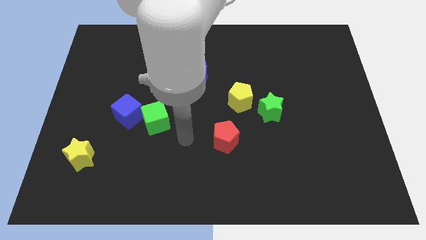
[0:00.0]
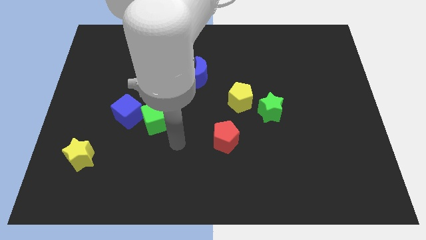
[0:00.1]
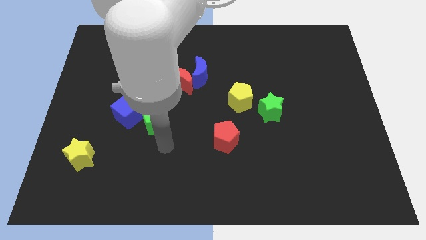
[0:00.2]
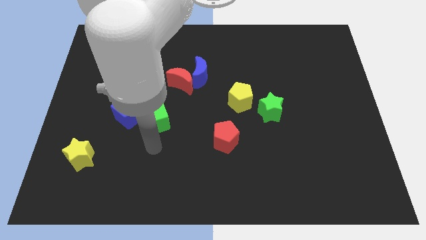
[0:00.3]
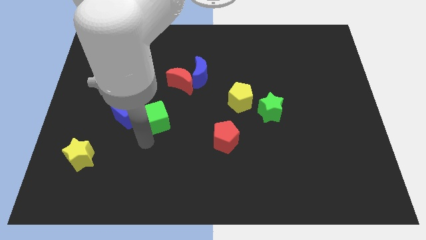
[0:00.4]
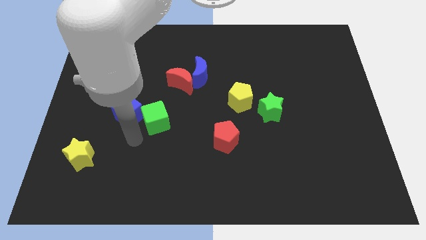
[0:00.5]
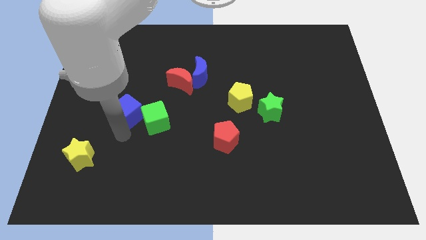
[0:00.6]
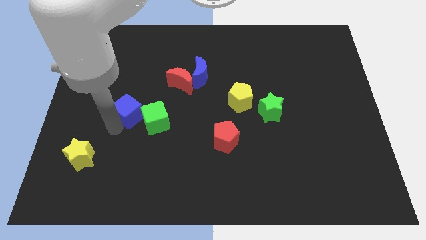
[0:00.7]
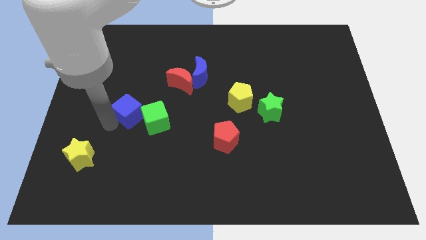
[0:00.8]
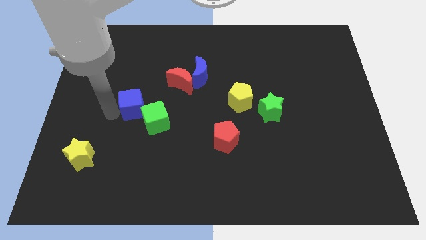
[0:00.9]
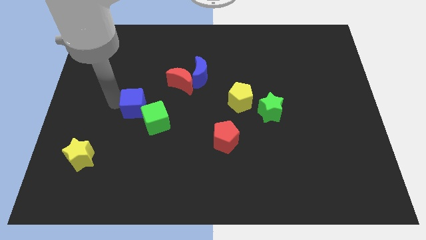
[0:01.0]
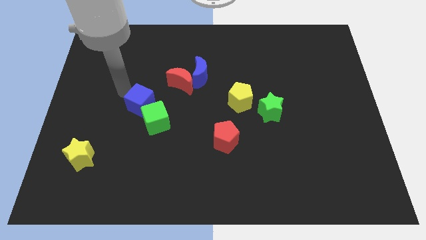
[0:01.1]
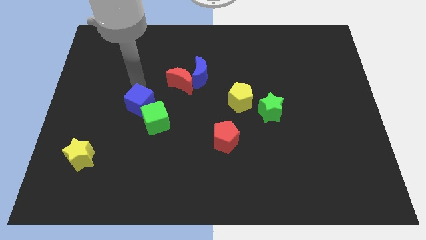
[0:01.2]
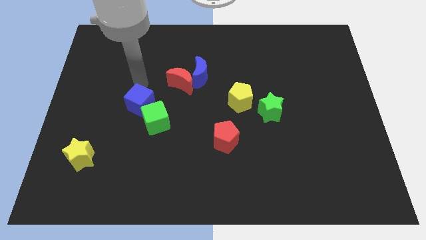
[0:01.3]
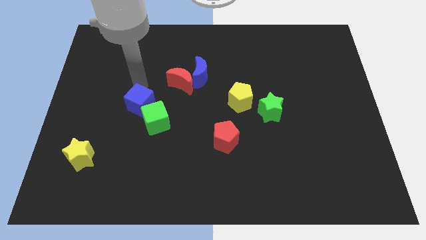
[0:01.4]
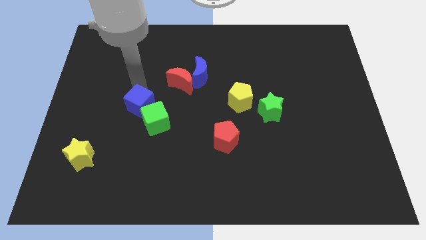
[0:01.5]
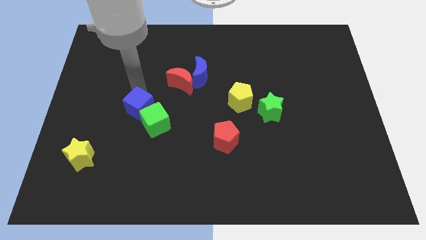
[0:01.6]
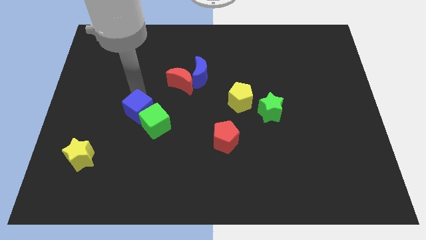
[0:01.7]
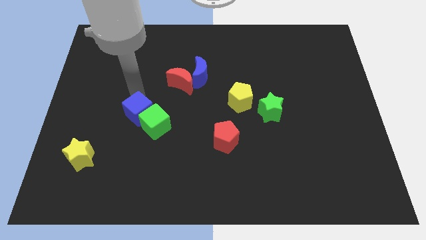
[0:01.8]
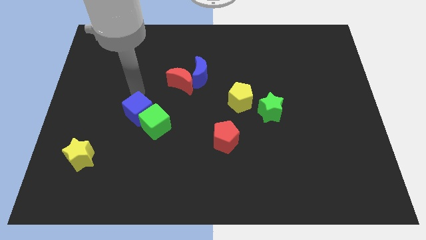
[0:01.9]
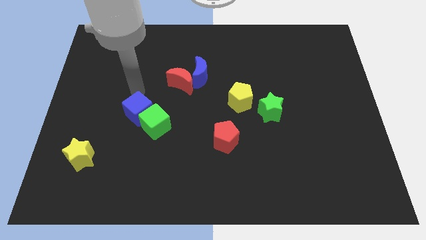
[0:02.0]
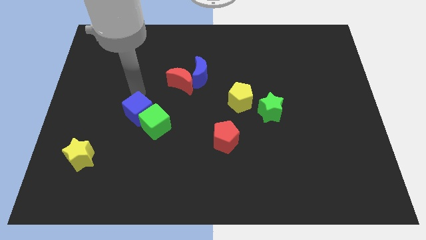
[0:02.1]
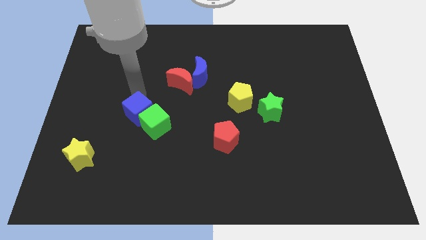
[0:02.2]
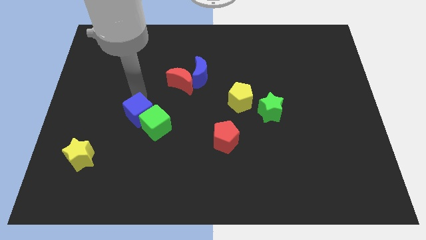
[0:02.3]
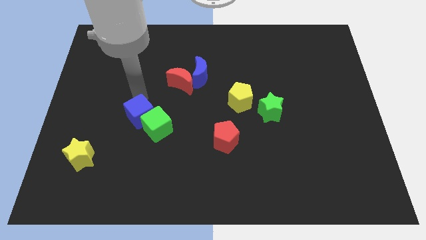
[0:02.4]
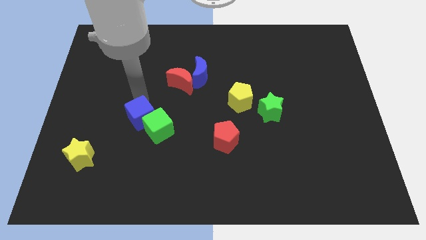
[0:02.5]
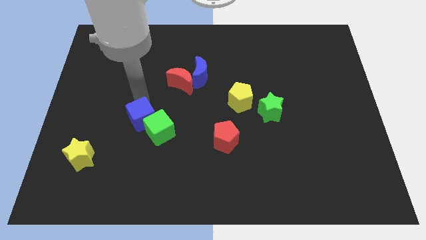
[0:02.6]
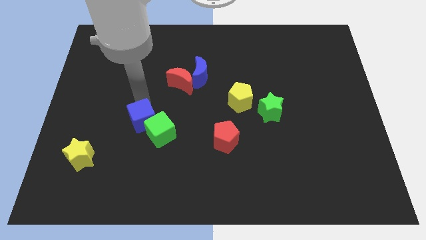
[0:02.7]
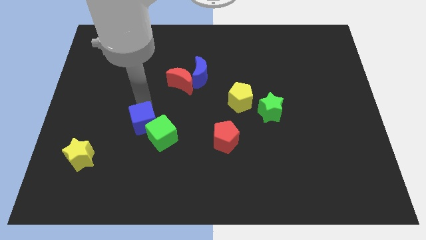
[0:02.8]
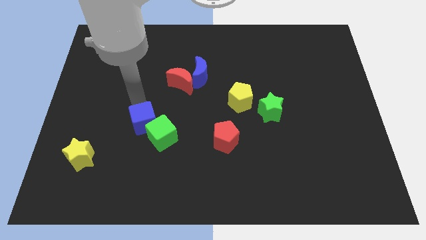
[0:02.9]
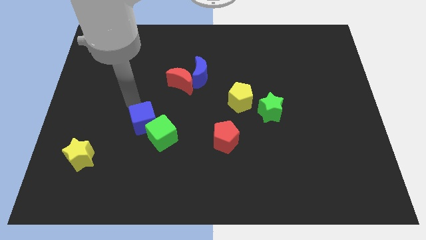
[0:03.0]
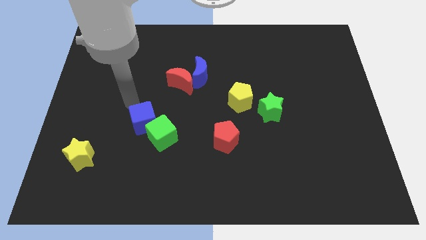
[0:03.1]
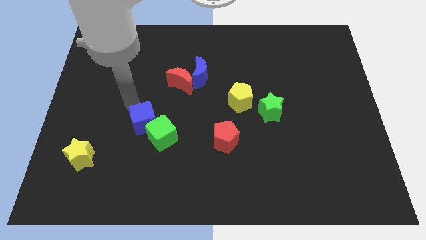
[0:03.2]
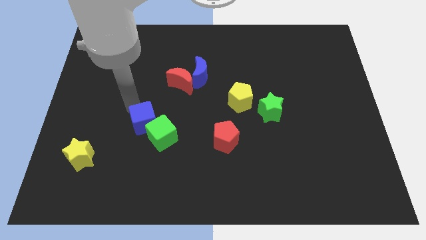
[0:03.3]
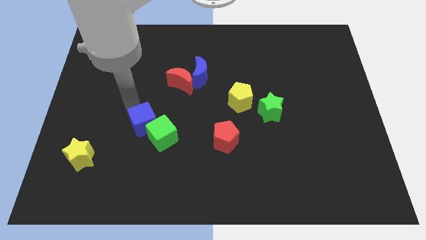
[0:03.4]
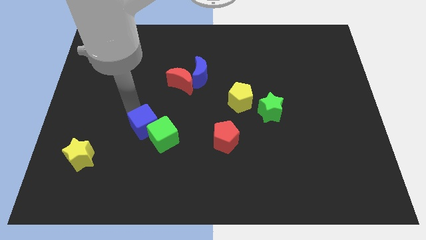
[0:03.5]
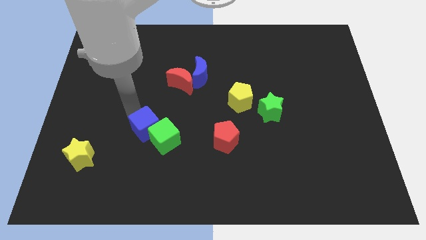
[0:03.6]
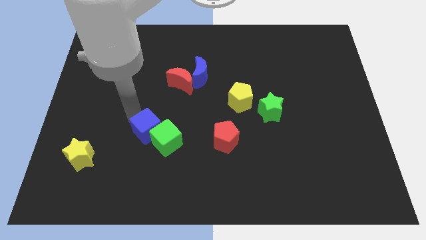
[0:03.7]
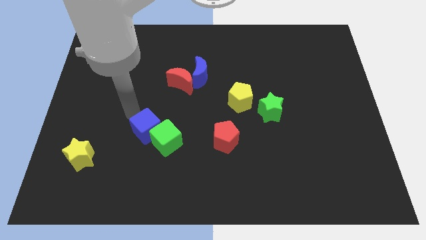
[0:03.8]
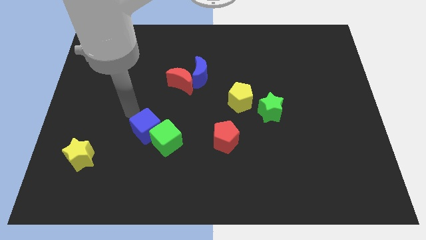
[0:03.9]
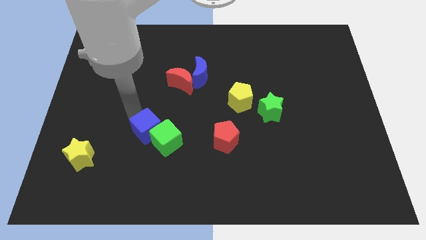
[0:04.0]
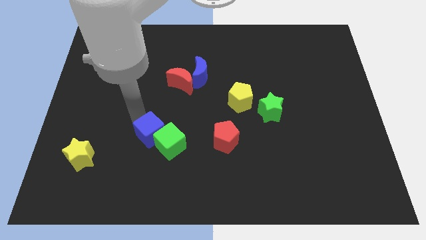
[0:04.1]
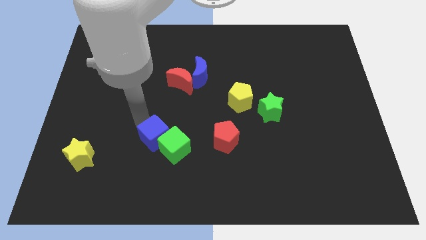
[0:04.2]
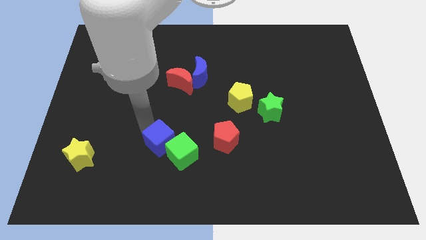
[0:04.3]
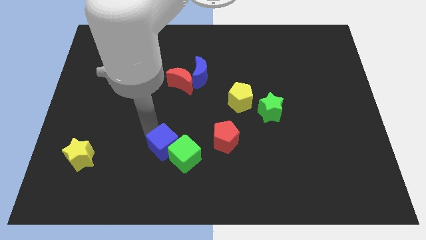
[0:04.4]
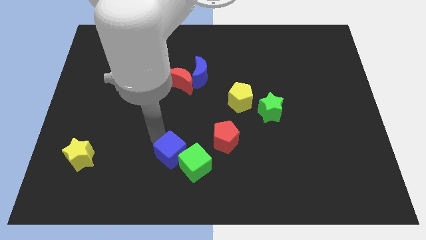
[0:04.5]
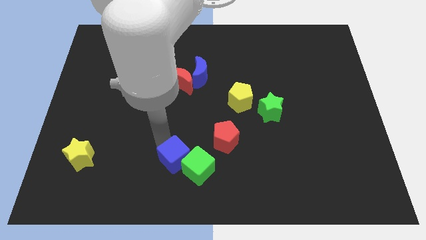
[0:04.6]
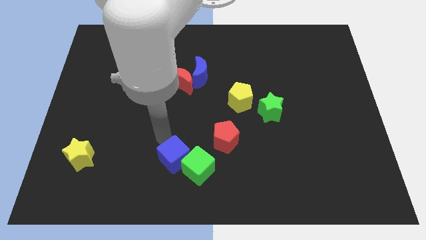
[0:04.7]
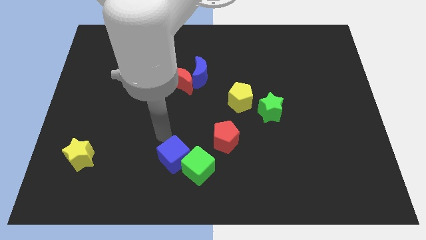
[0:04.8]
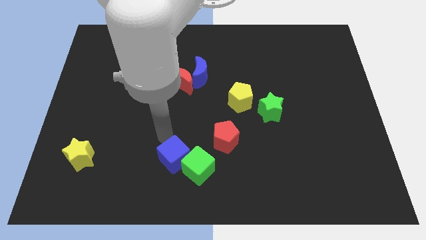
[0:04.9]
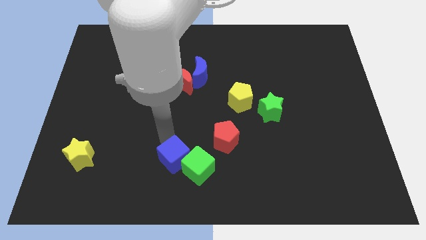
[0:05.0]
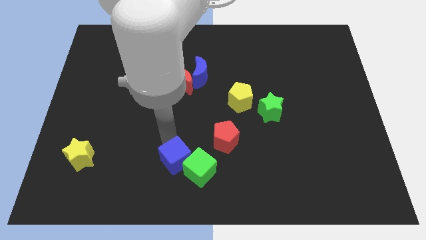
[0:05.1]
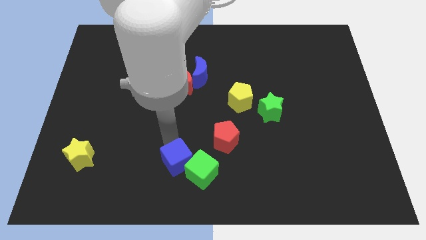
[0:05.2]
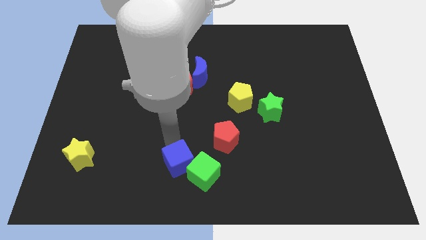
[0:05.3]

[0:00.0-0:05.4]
put the blue cube to the bottom

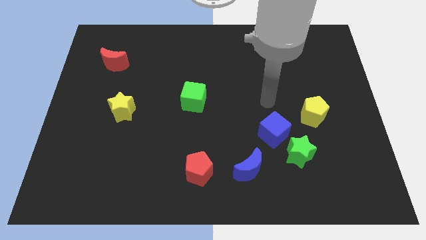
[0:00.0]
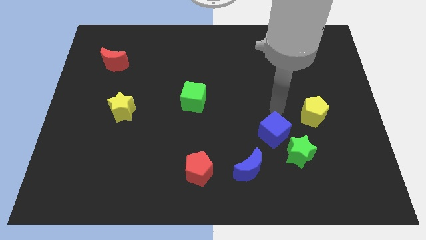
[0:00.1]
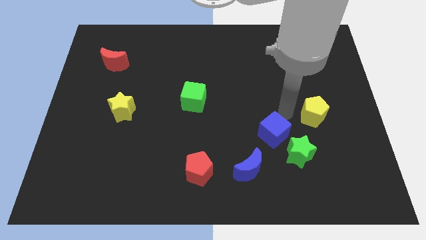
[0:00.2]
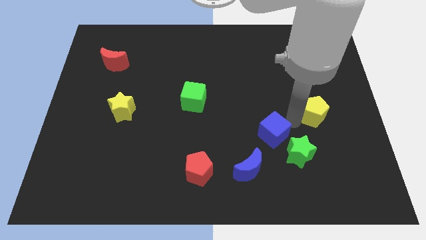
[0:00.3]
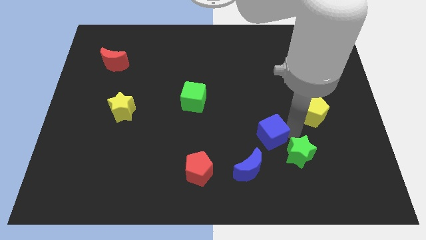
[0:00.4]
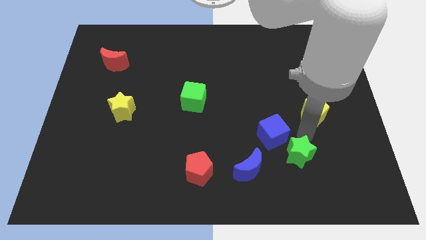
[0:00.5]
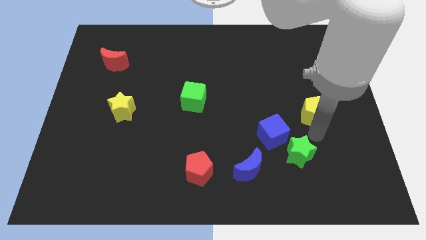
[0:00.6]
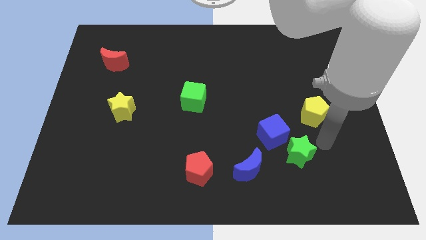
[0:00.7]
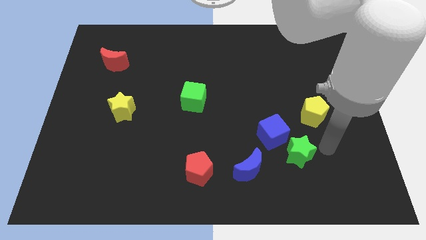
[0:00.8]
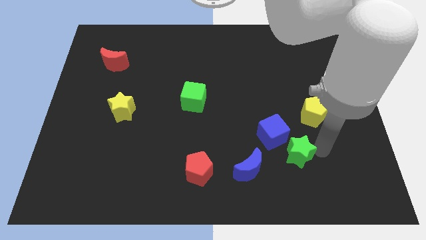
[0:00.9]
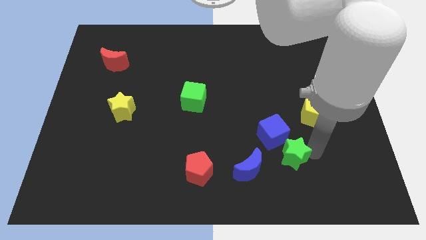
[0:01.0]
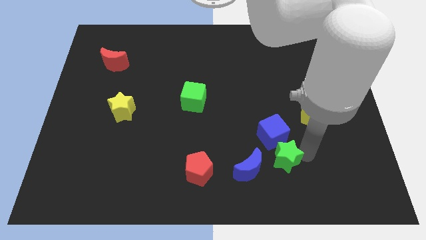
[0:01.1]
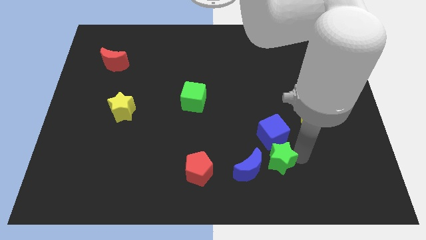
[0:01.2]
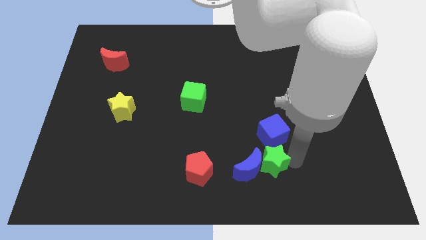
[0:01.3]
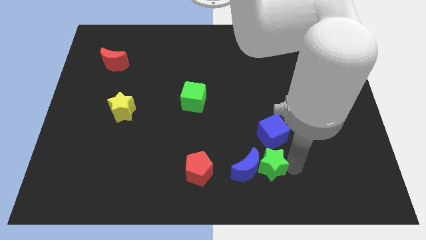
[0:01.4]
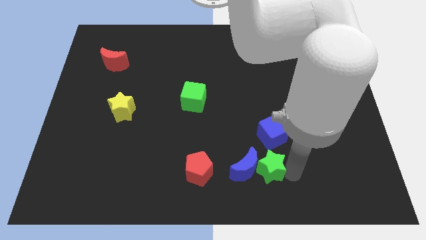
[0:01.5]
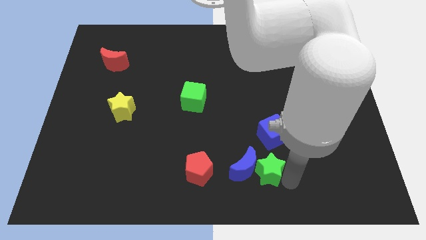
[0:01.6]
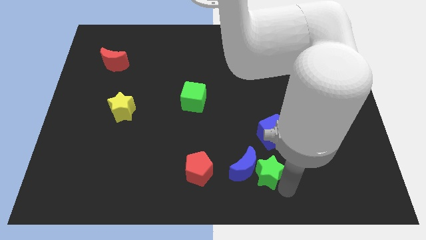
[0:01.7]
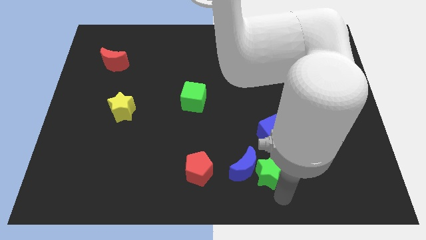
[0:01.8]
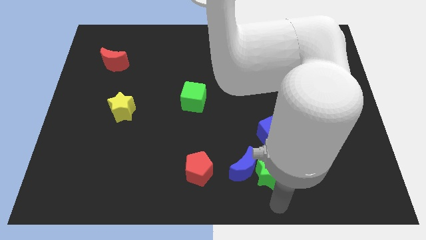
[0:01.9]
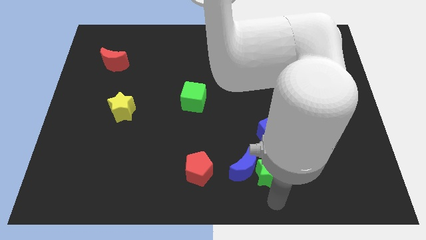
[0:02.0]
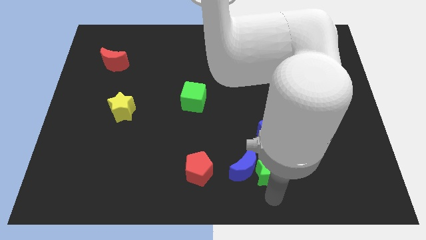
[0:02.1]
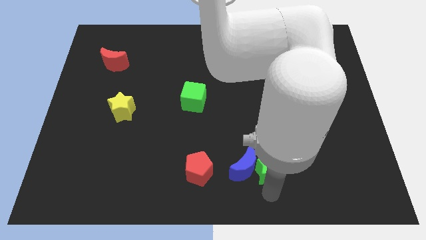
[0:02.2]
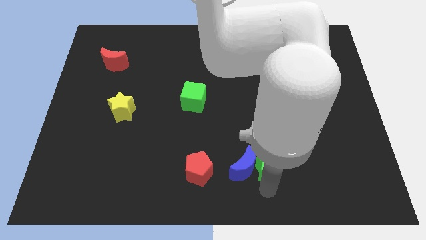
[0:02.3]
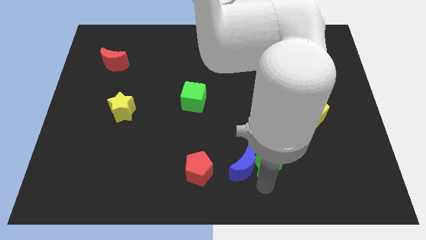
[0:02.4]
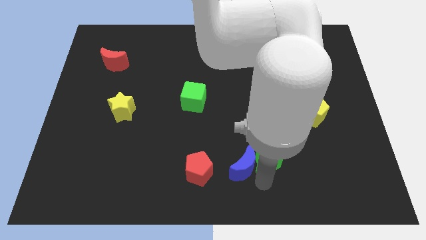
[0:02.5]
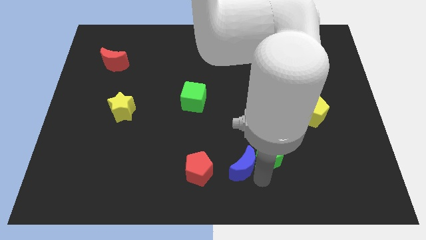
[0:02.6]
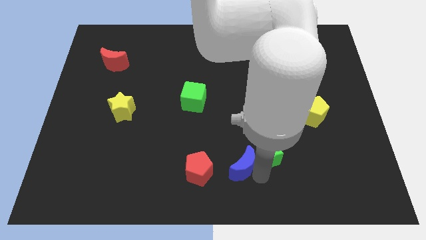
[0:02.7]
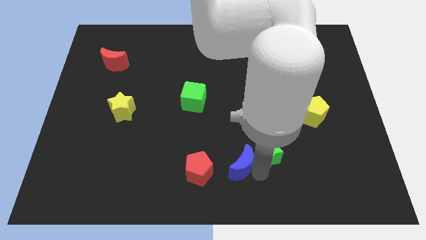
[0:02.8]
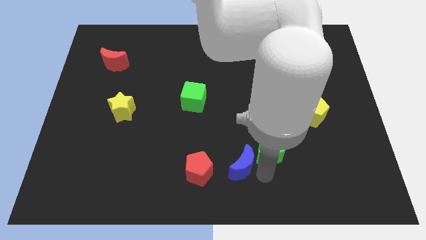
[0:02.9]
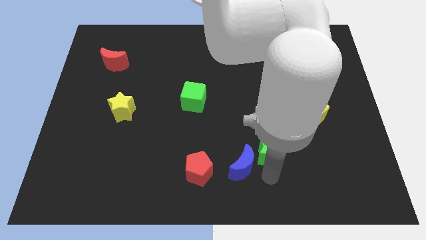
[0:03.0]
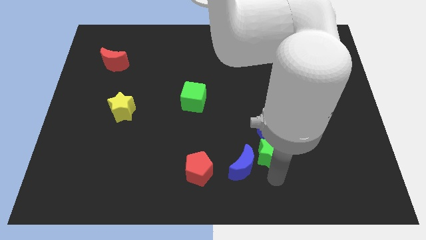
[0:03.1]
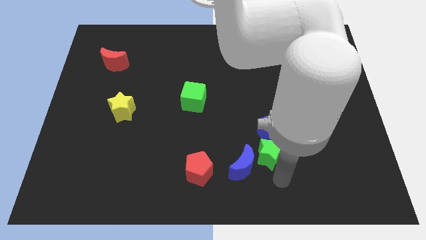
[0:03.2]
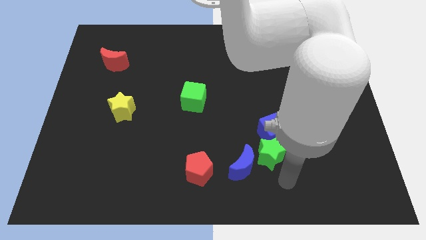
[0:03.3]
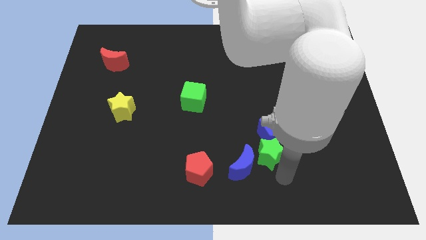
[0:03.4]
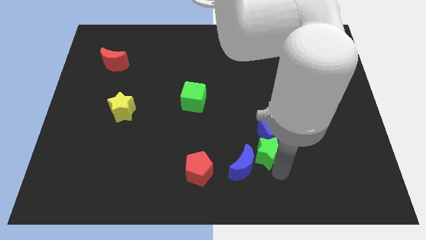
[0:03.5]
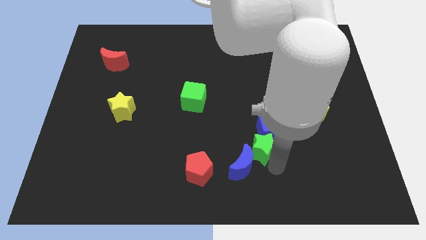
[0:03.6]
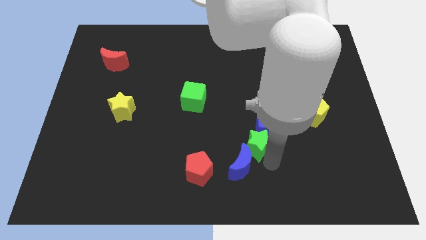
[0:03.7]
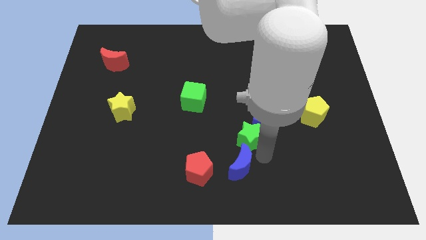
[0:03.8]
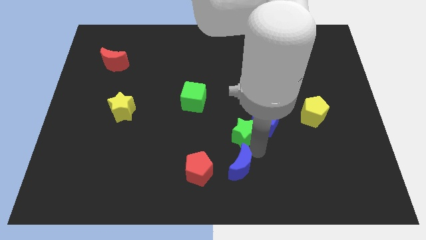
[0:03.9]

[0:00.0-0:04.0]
slide the green star to the middle
